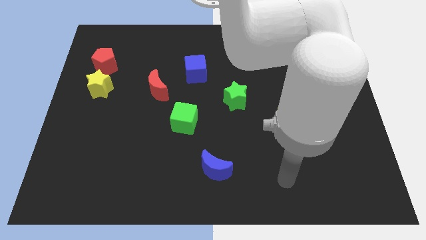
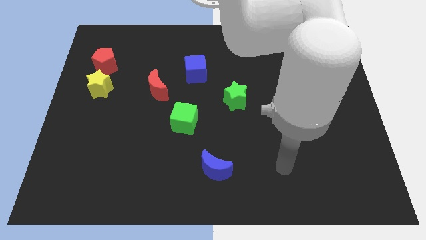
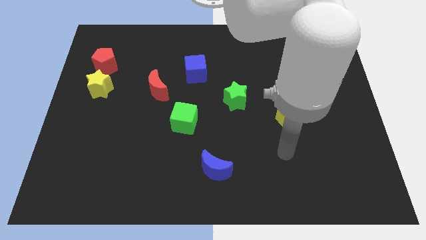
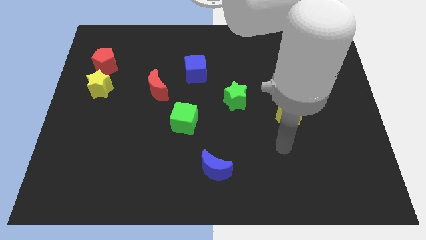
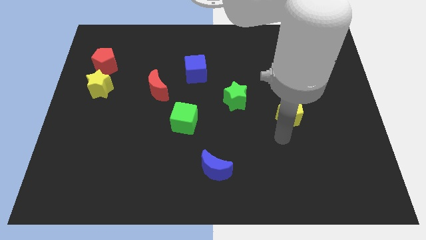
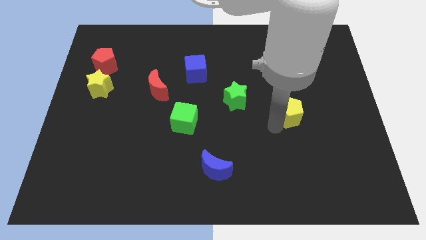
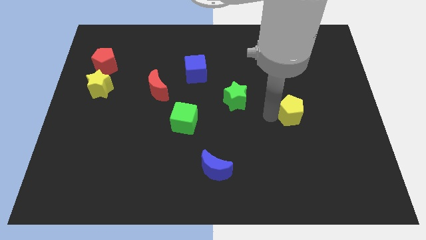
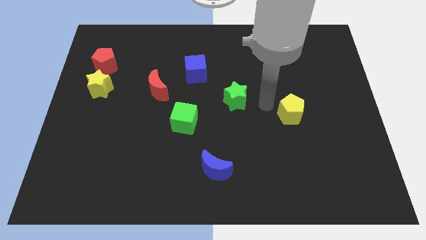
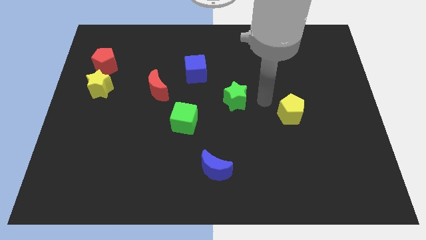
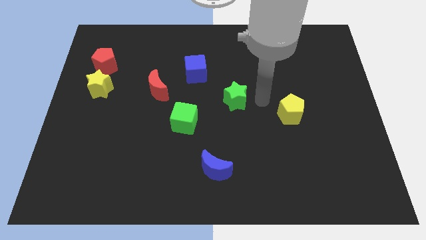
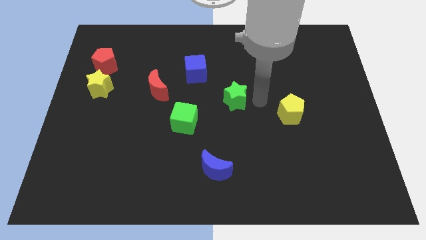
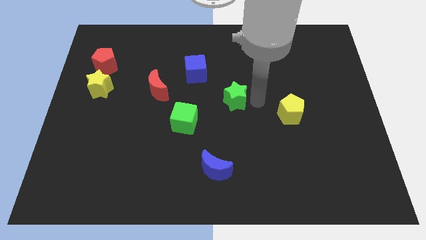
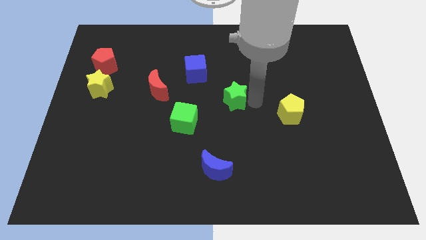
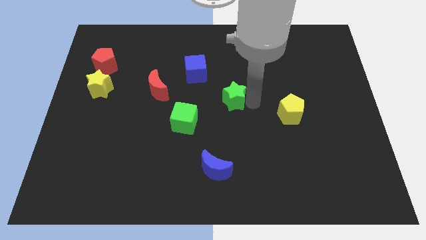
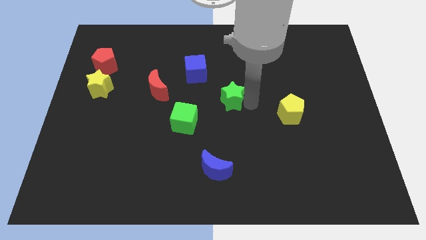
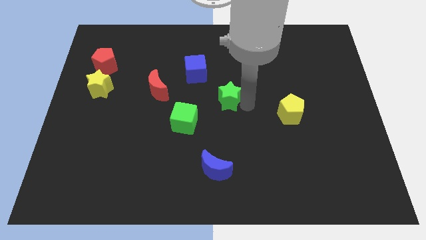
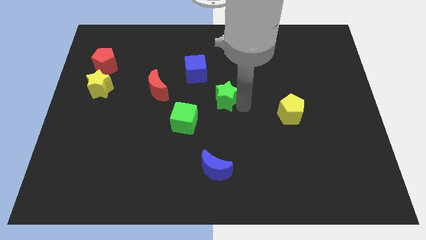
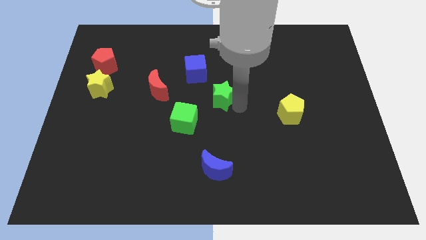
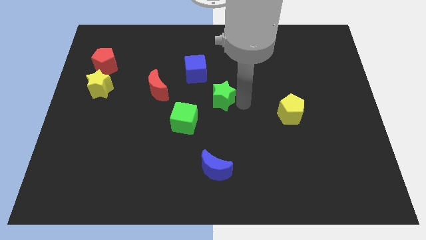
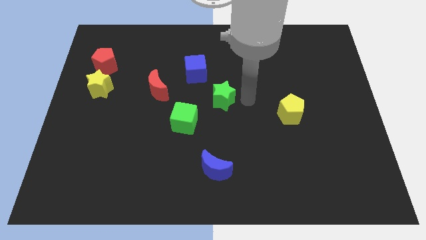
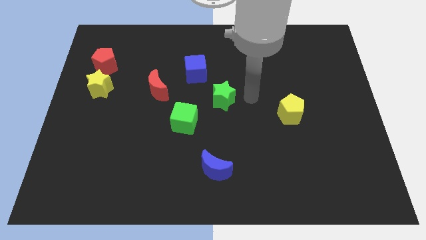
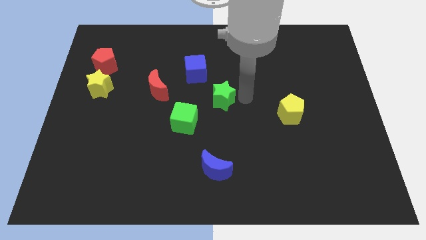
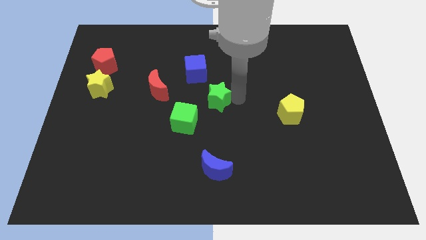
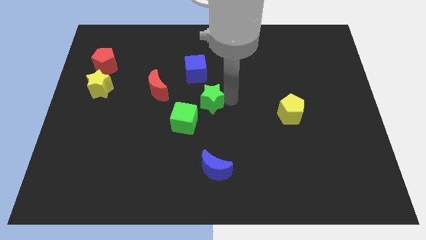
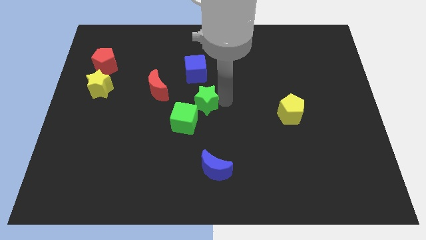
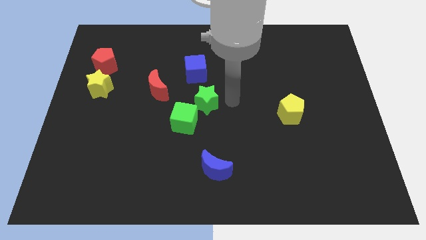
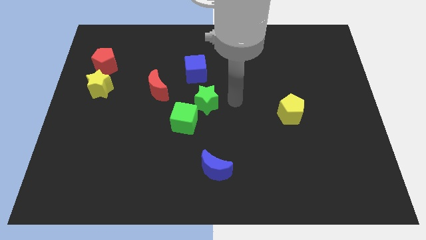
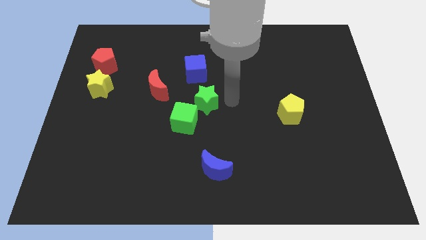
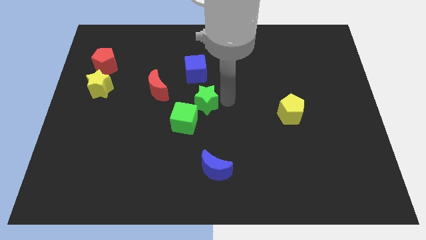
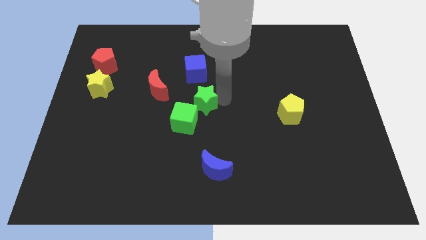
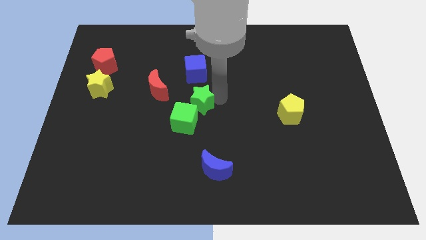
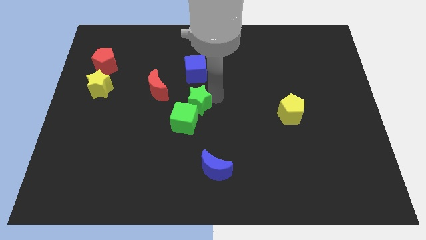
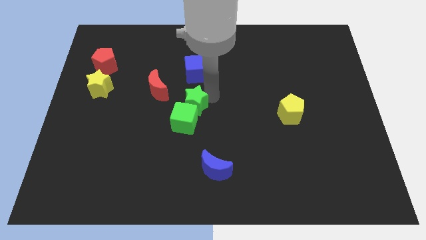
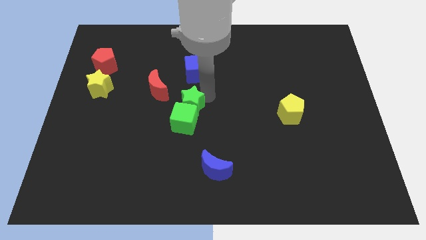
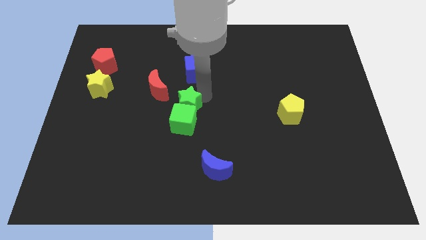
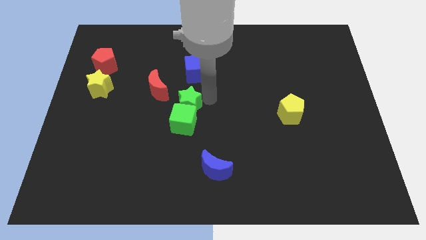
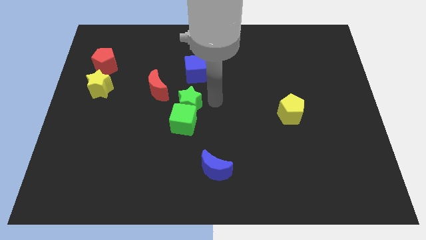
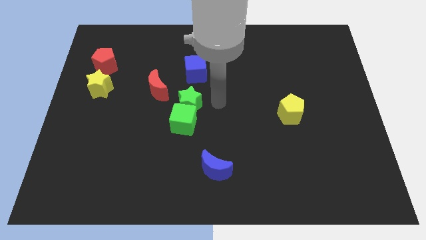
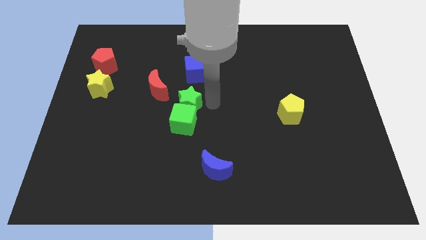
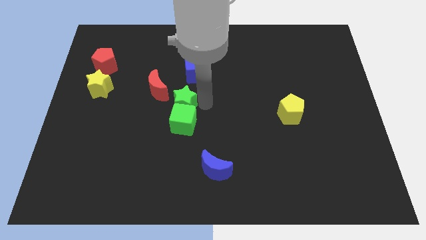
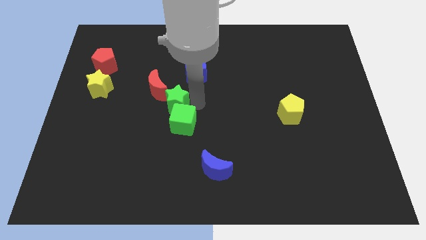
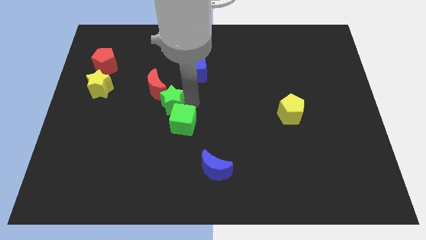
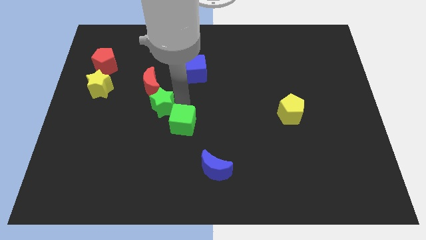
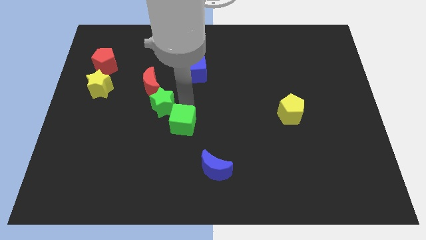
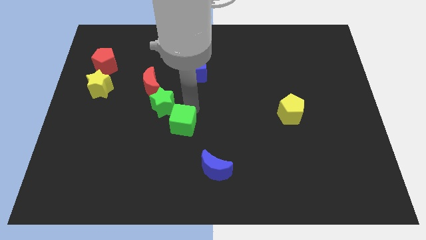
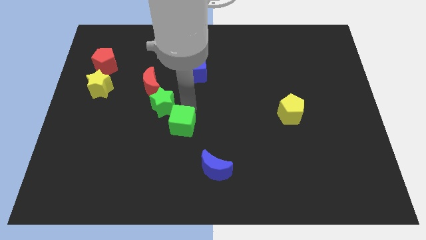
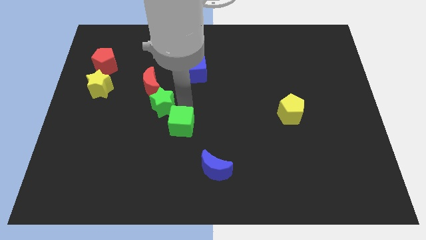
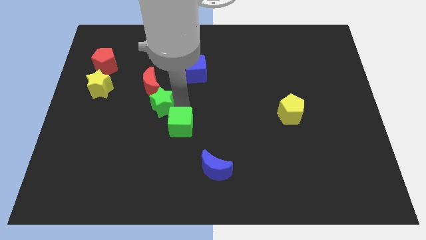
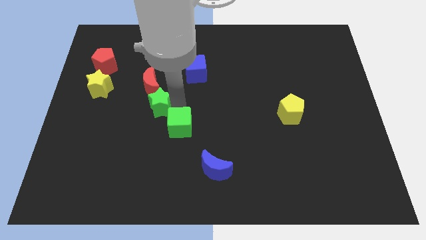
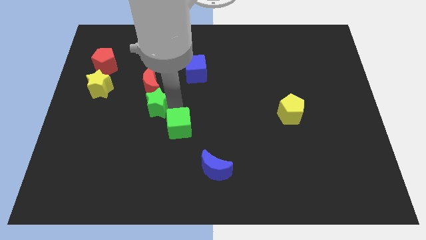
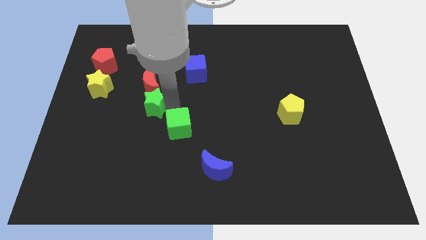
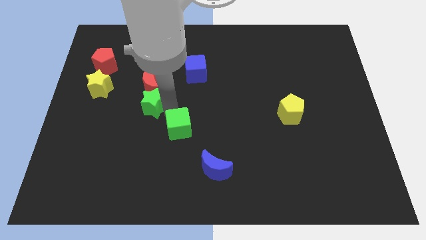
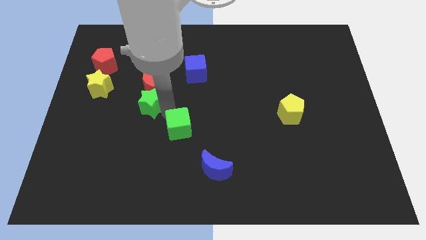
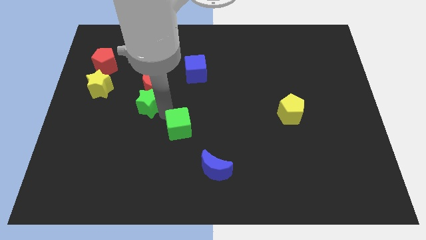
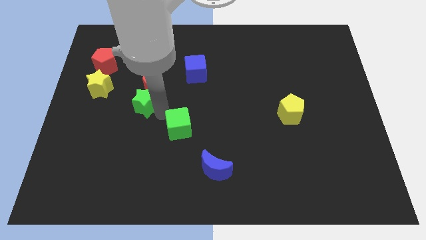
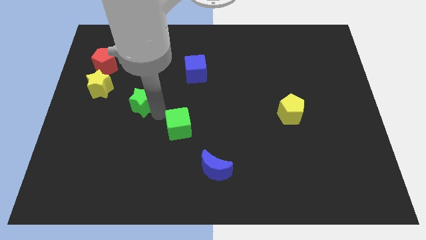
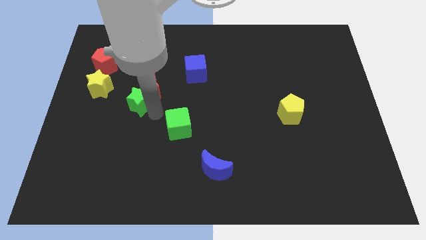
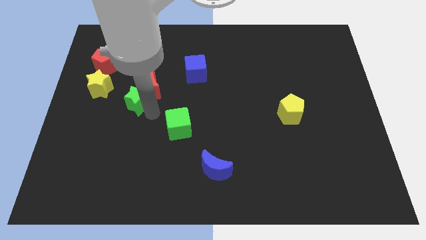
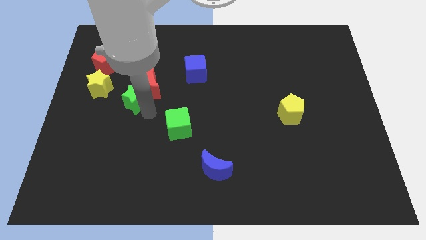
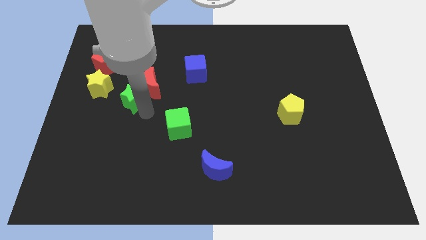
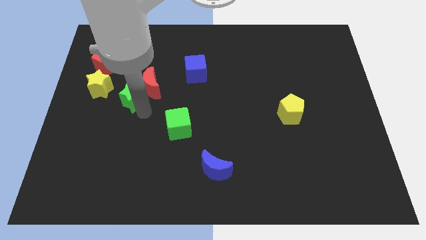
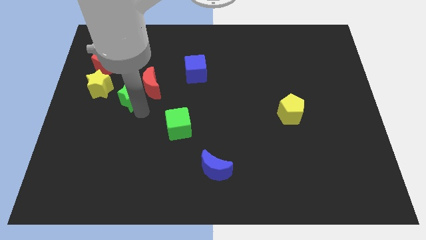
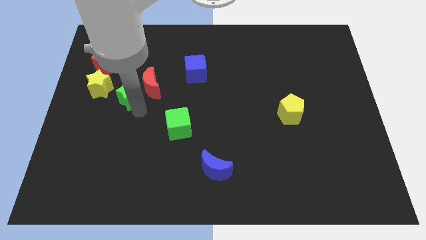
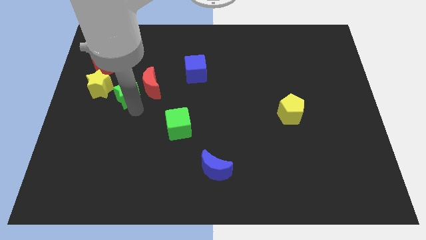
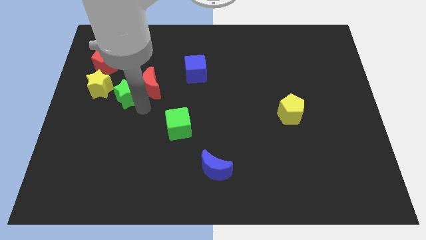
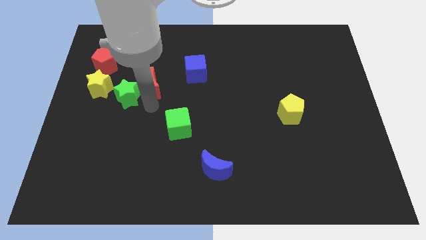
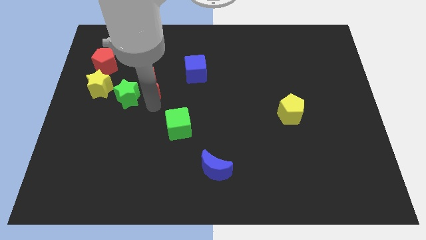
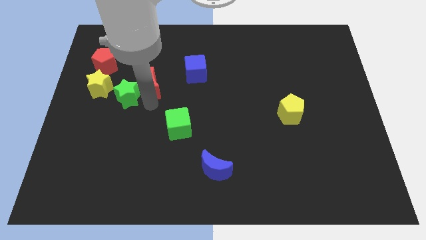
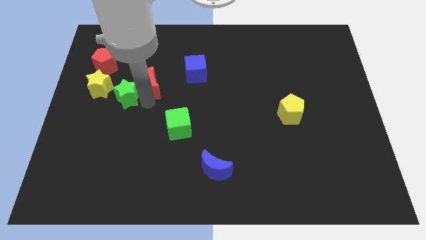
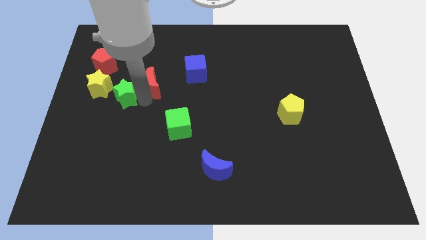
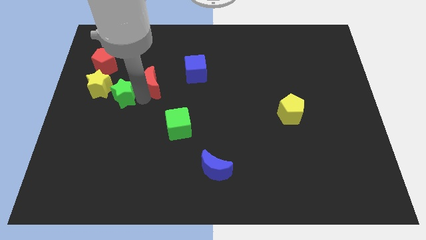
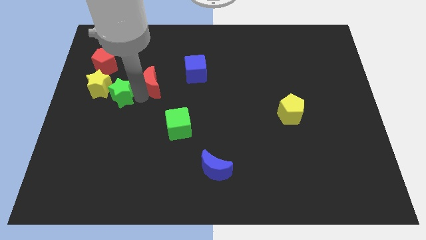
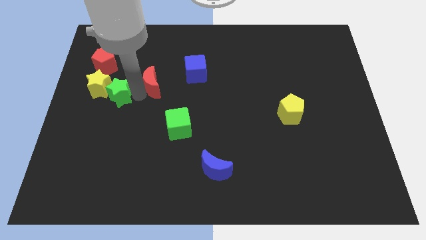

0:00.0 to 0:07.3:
put the green star to the yellow star
